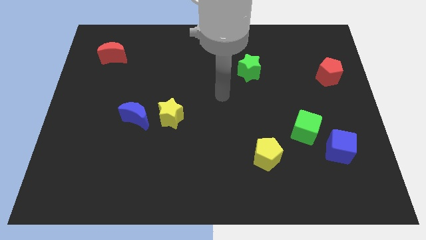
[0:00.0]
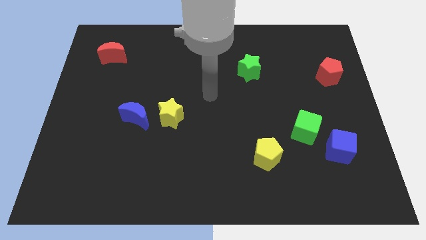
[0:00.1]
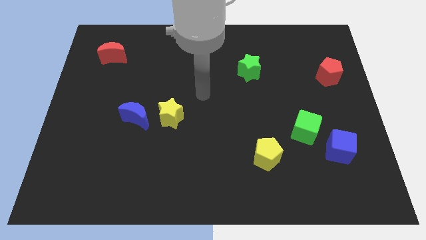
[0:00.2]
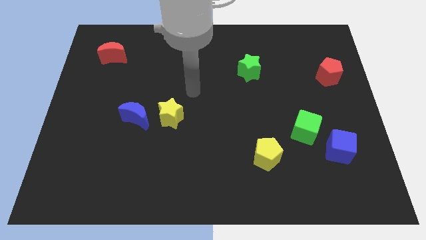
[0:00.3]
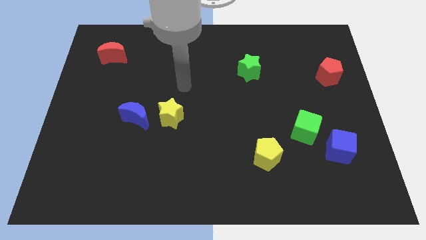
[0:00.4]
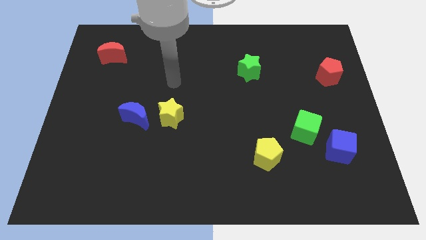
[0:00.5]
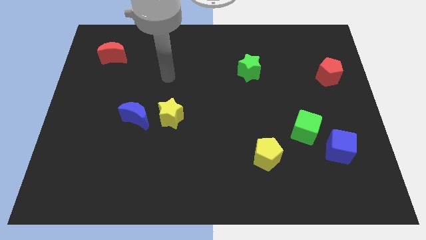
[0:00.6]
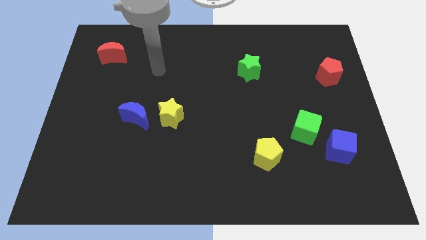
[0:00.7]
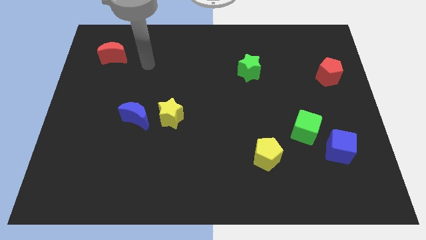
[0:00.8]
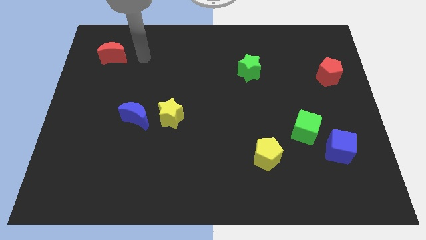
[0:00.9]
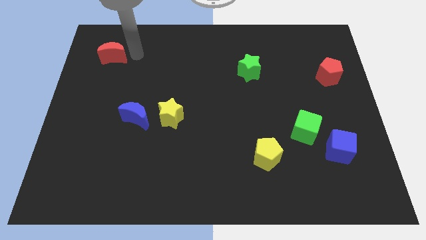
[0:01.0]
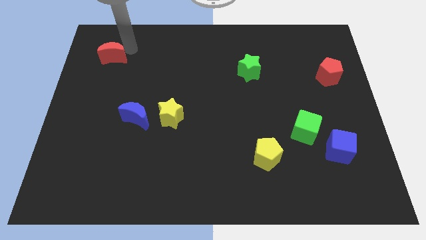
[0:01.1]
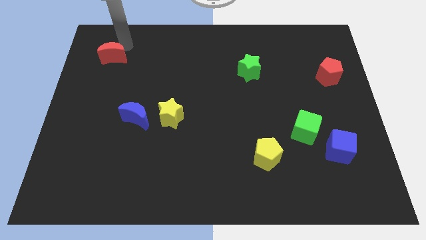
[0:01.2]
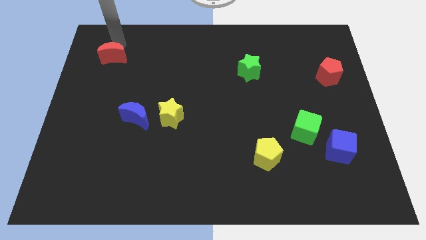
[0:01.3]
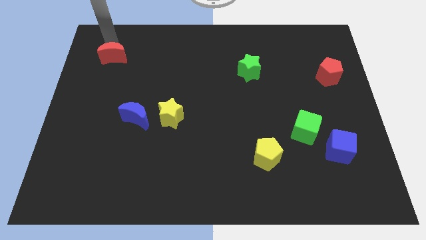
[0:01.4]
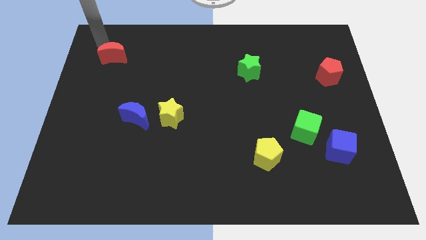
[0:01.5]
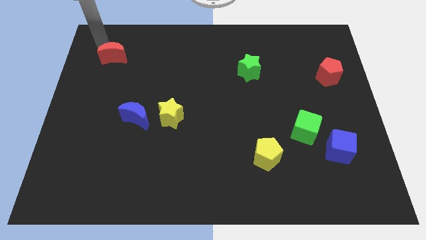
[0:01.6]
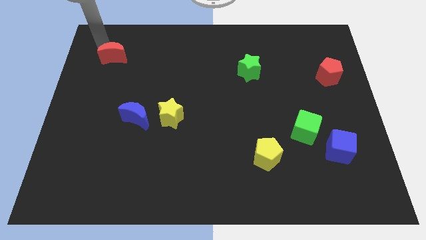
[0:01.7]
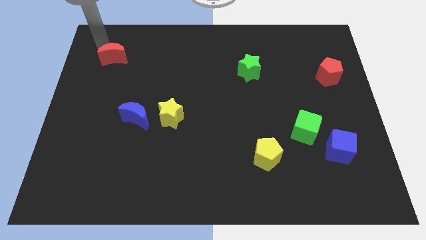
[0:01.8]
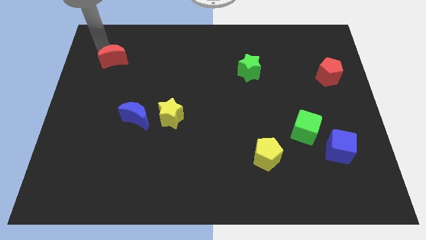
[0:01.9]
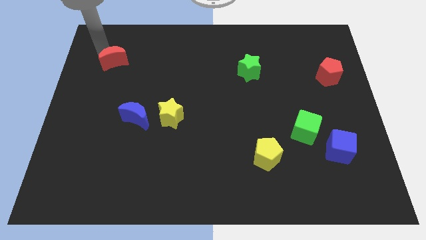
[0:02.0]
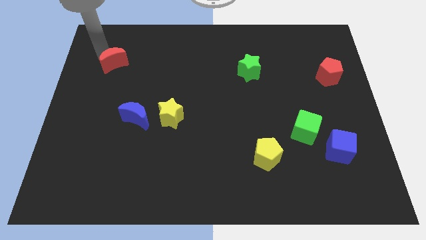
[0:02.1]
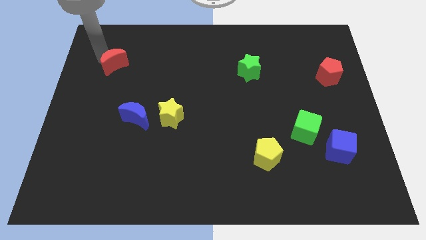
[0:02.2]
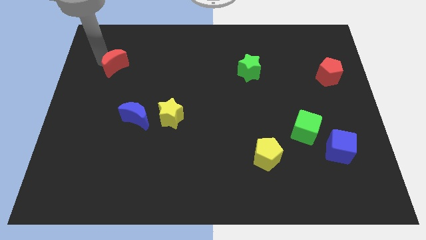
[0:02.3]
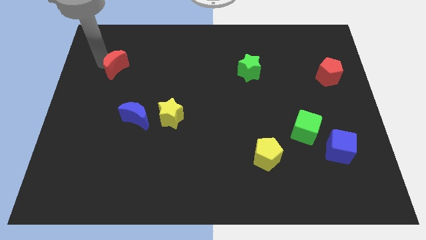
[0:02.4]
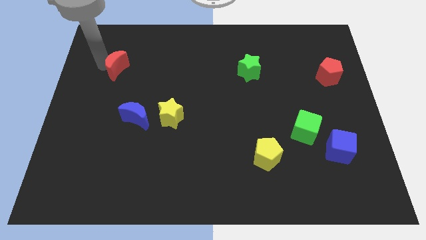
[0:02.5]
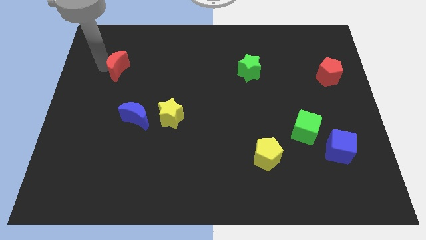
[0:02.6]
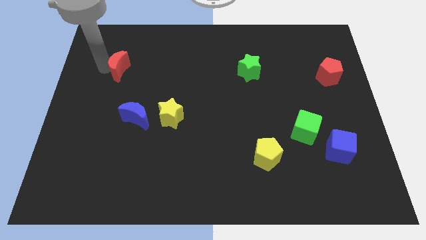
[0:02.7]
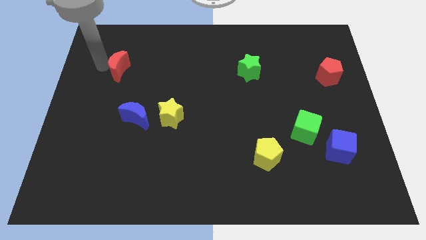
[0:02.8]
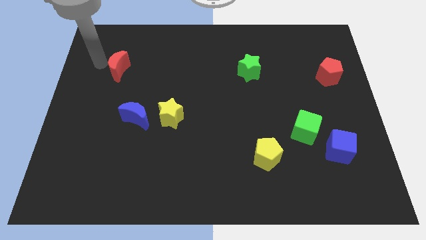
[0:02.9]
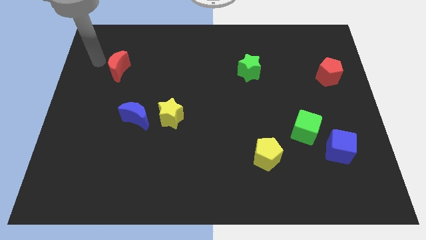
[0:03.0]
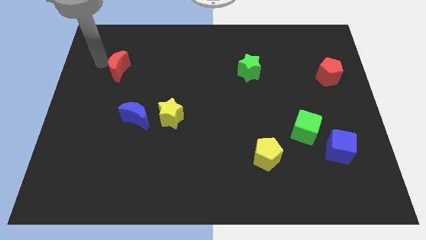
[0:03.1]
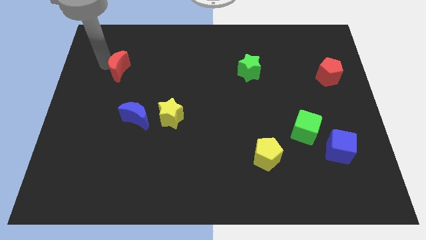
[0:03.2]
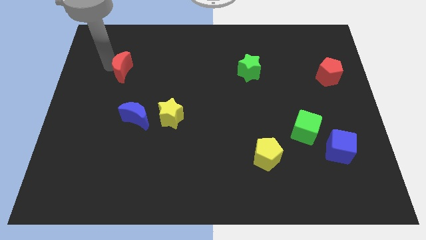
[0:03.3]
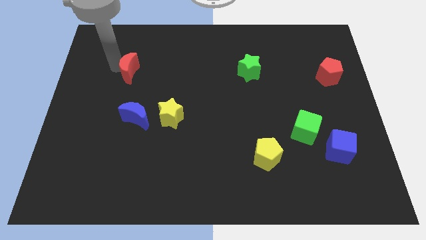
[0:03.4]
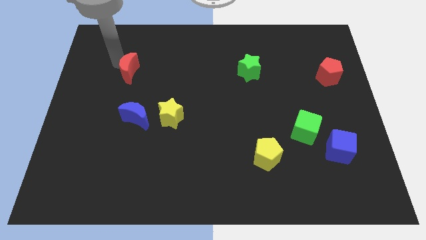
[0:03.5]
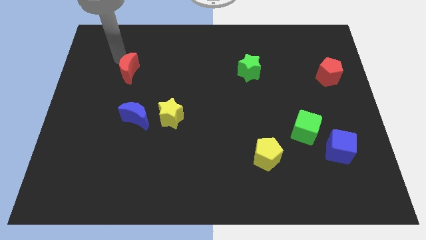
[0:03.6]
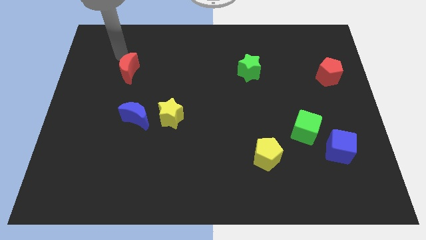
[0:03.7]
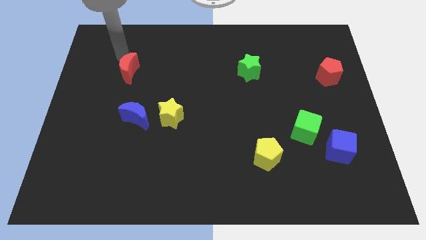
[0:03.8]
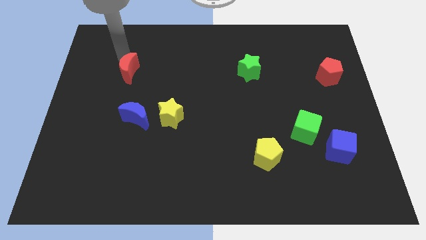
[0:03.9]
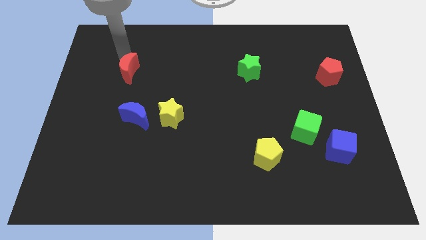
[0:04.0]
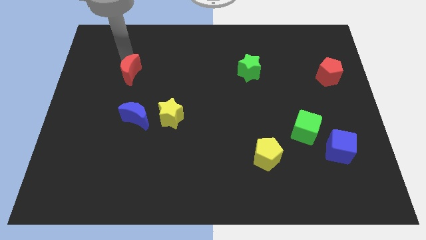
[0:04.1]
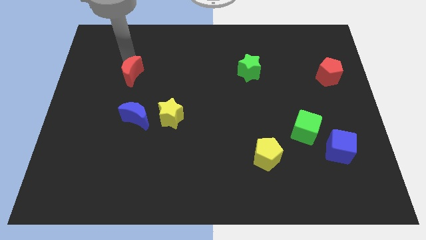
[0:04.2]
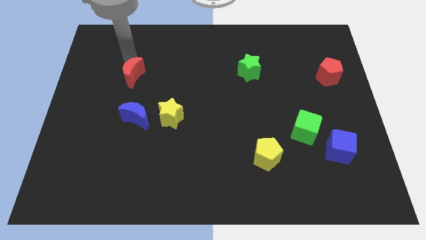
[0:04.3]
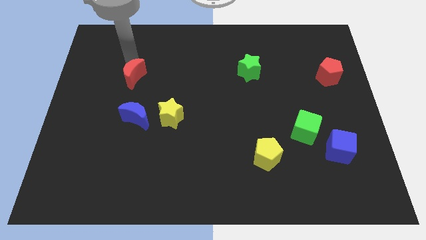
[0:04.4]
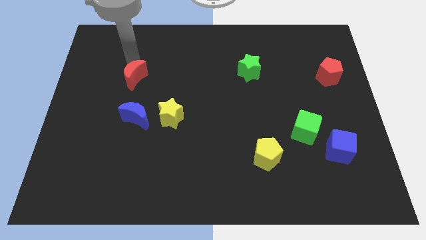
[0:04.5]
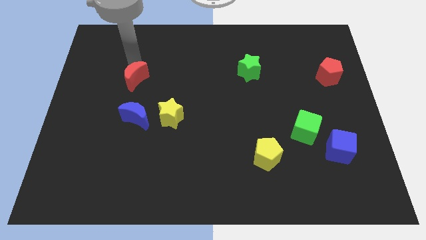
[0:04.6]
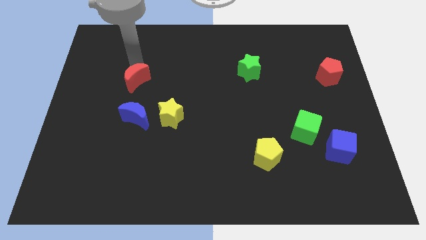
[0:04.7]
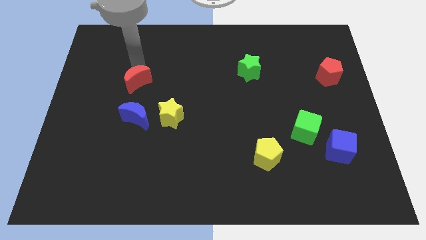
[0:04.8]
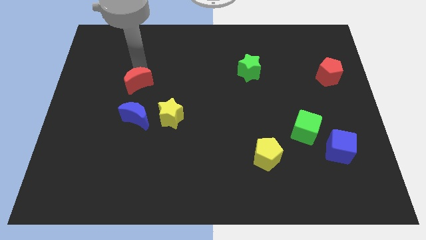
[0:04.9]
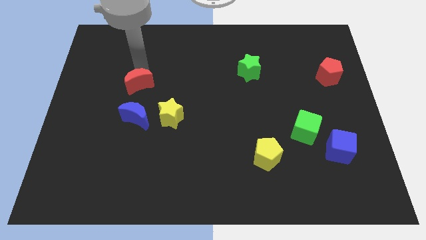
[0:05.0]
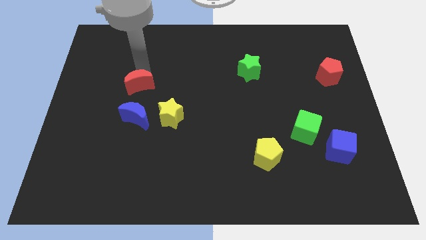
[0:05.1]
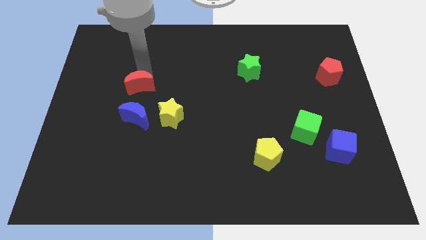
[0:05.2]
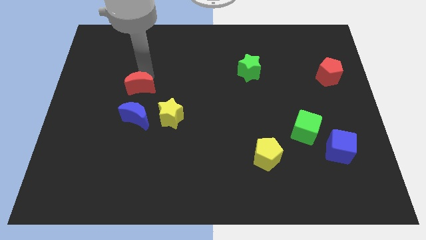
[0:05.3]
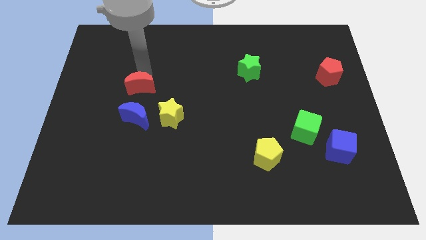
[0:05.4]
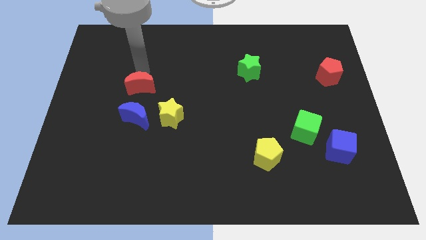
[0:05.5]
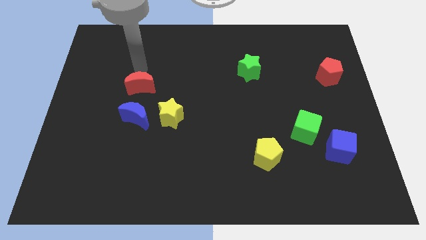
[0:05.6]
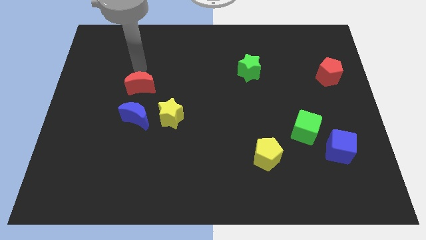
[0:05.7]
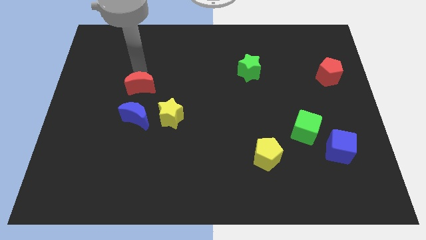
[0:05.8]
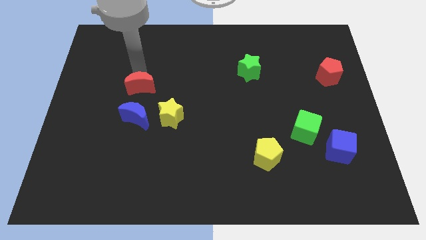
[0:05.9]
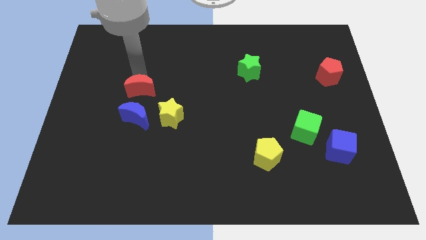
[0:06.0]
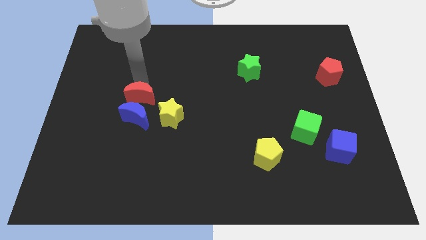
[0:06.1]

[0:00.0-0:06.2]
put the red moon next to the blue moon

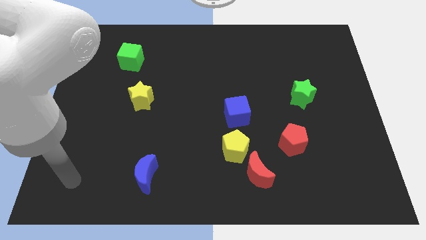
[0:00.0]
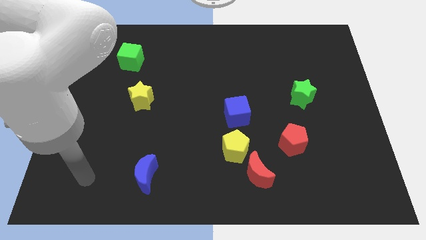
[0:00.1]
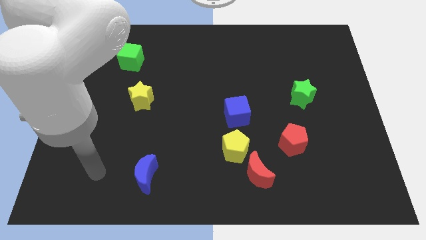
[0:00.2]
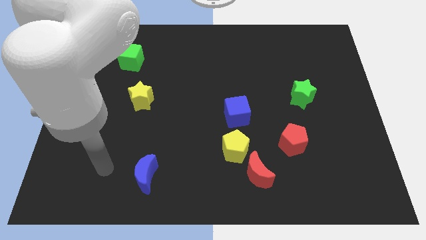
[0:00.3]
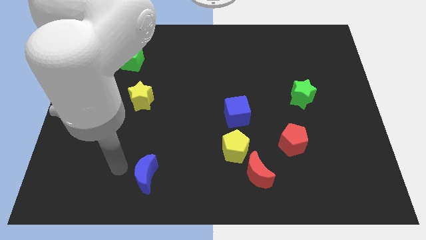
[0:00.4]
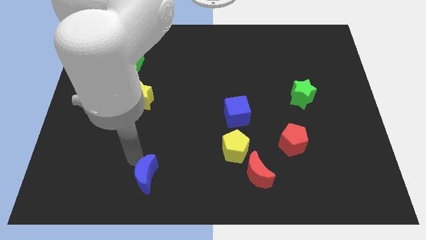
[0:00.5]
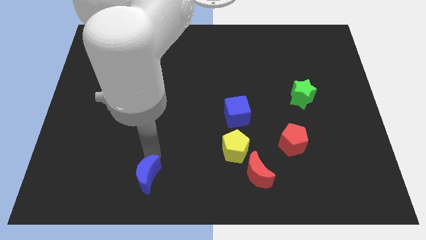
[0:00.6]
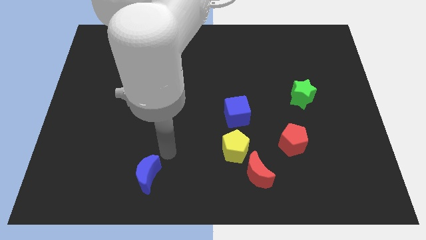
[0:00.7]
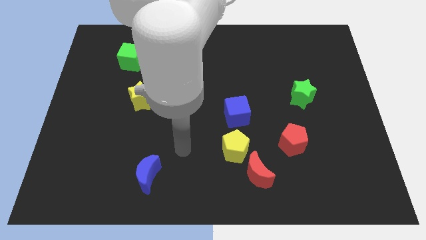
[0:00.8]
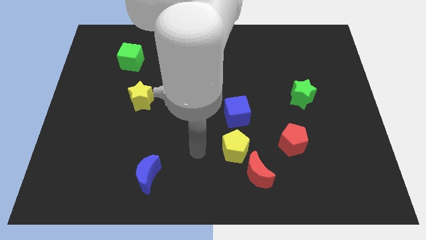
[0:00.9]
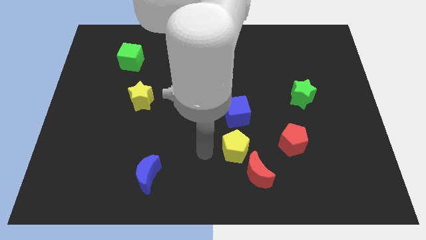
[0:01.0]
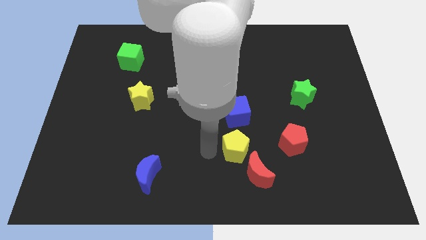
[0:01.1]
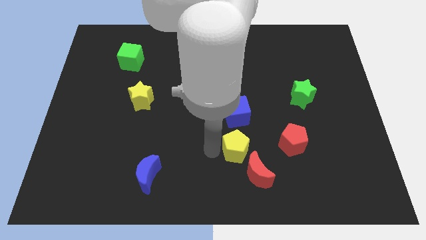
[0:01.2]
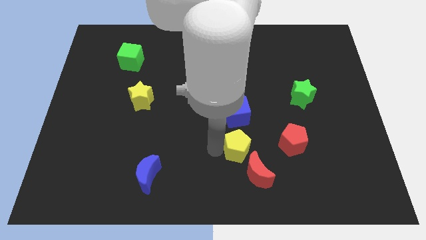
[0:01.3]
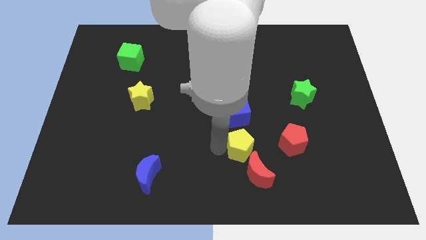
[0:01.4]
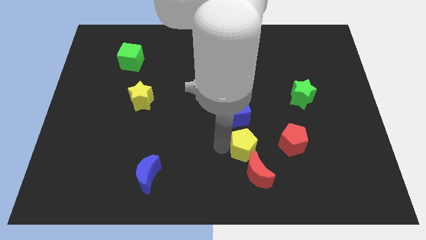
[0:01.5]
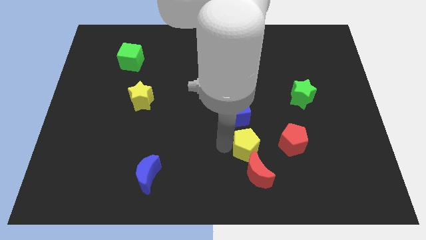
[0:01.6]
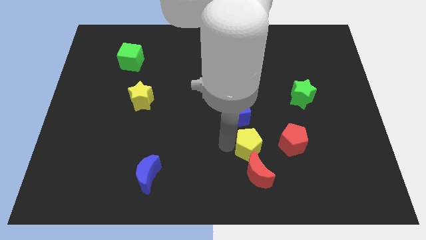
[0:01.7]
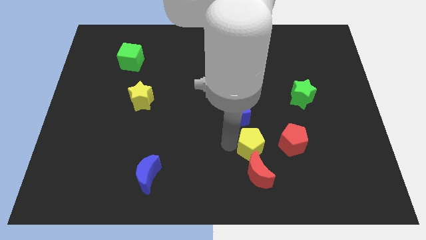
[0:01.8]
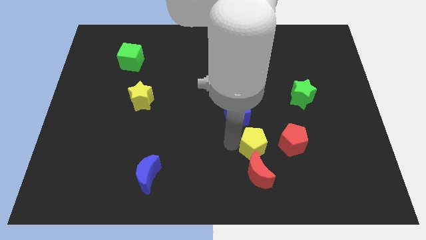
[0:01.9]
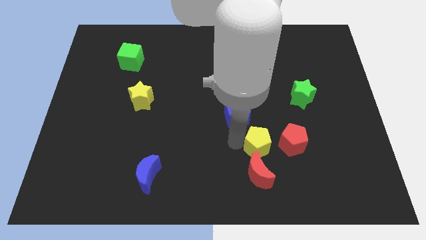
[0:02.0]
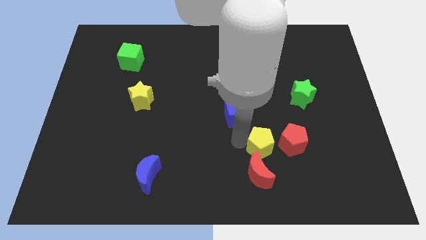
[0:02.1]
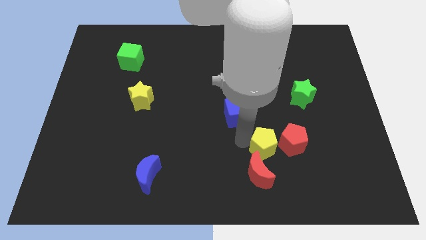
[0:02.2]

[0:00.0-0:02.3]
move the yellow pentagon to the red pentagon
